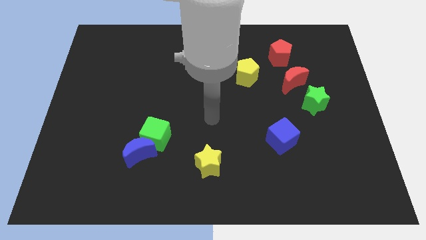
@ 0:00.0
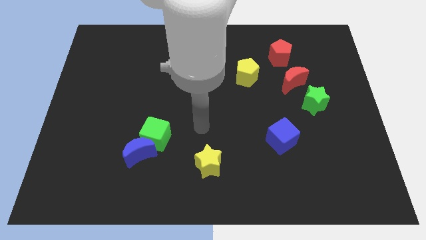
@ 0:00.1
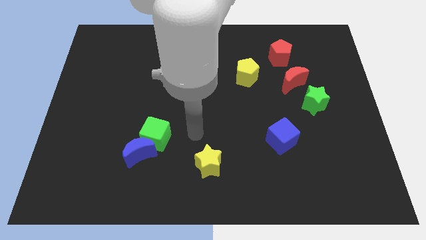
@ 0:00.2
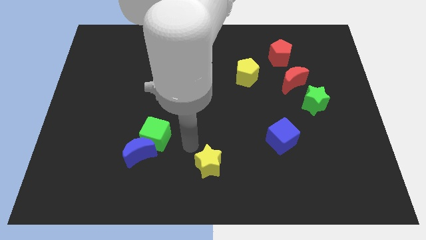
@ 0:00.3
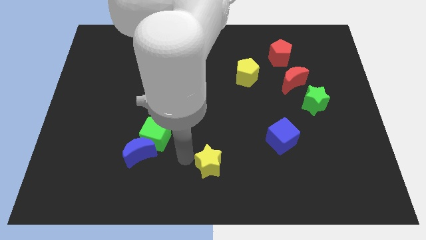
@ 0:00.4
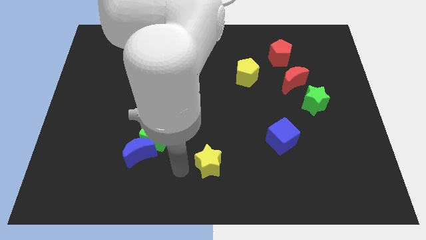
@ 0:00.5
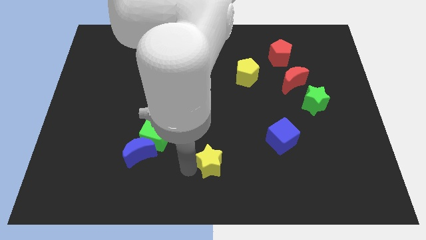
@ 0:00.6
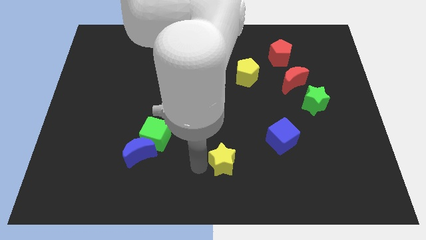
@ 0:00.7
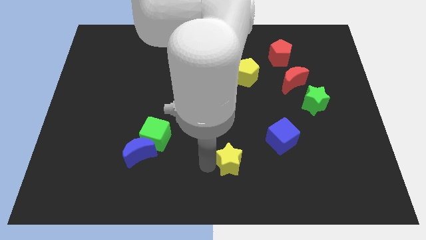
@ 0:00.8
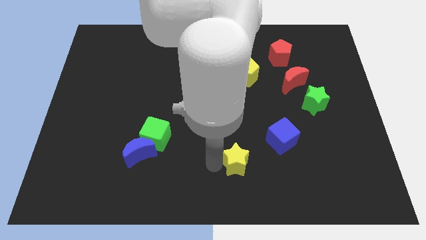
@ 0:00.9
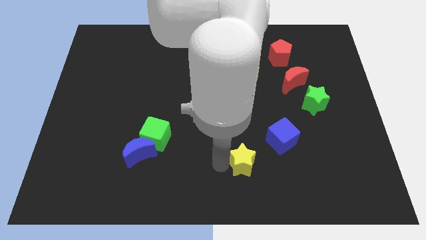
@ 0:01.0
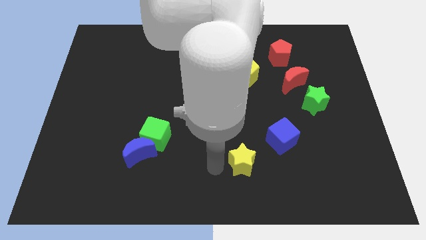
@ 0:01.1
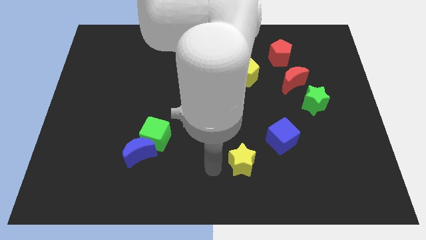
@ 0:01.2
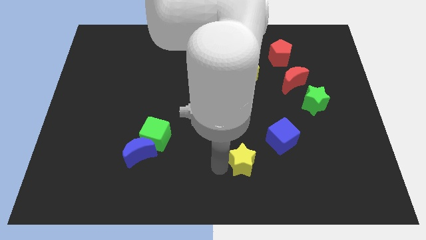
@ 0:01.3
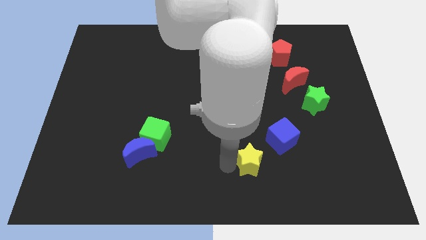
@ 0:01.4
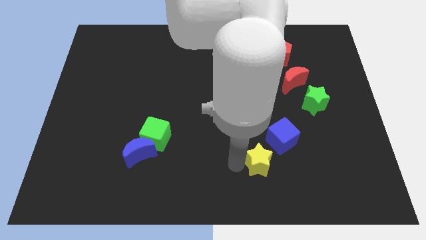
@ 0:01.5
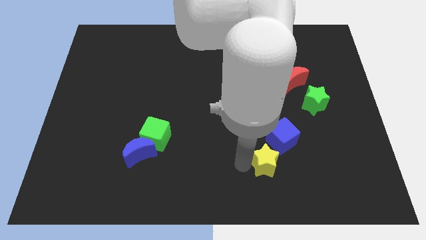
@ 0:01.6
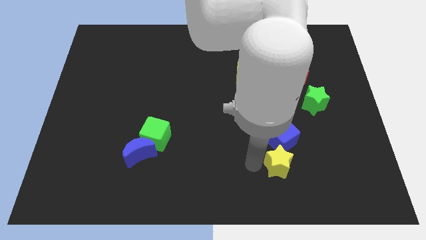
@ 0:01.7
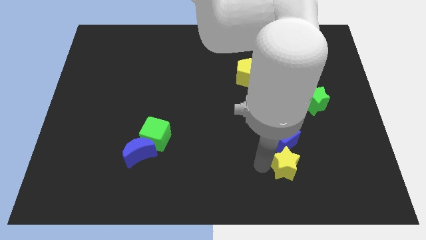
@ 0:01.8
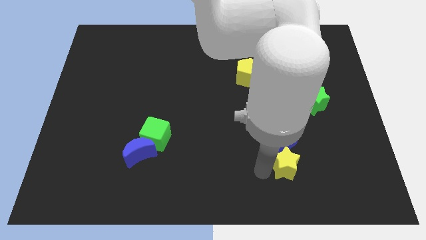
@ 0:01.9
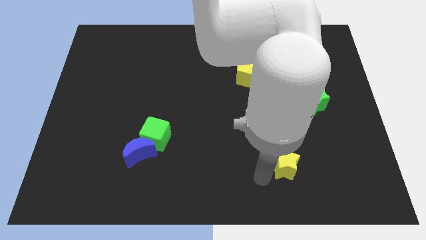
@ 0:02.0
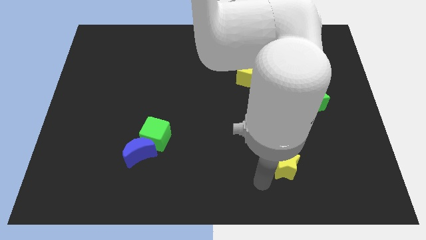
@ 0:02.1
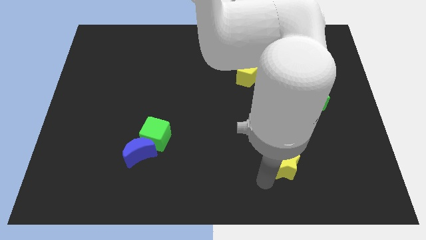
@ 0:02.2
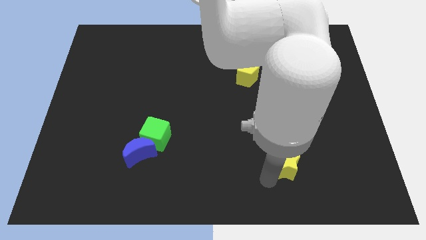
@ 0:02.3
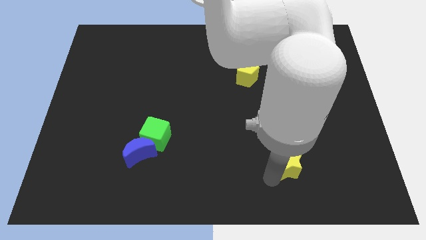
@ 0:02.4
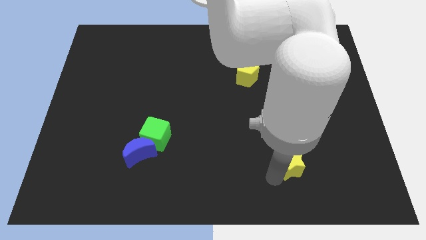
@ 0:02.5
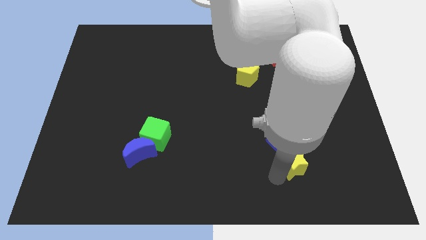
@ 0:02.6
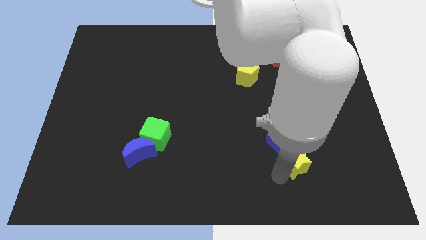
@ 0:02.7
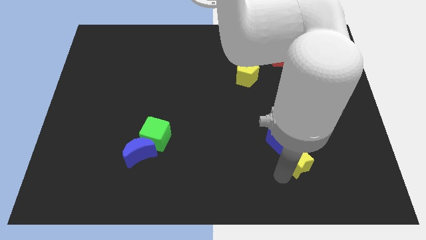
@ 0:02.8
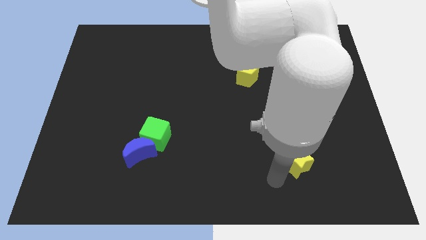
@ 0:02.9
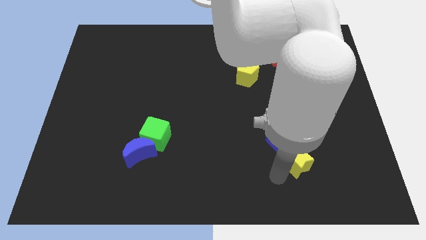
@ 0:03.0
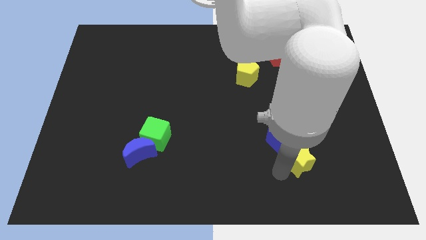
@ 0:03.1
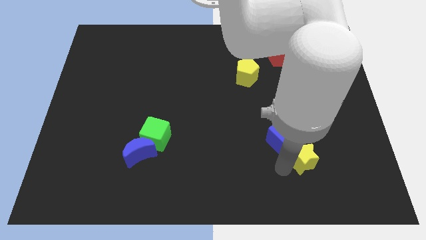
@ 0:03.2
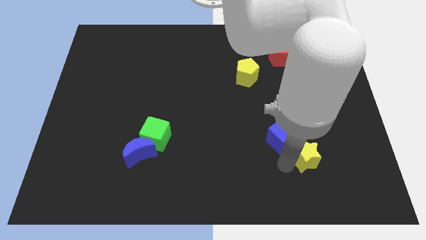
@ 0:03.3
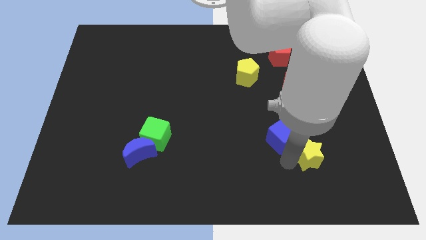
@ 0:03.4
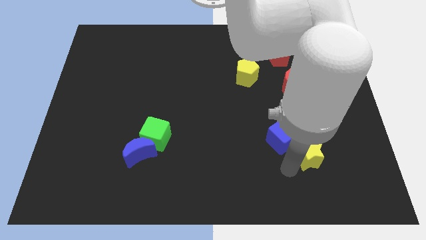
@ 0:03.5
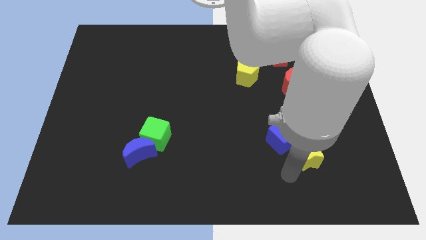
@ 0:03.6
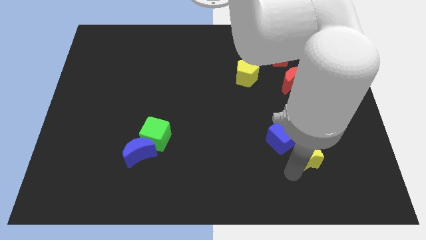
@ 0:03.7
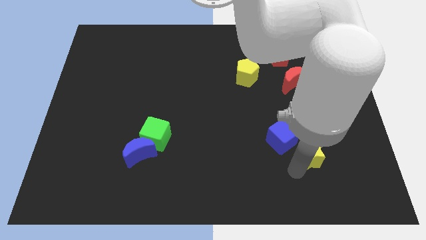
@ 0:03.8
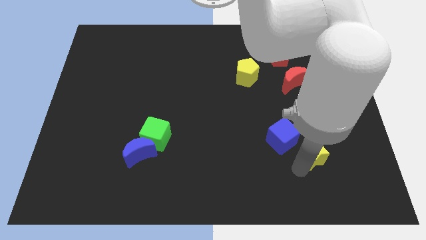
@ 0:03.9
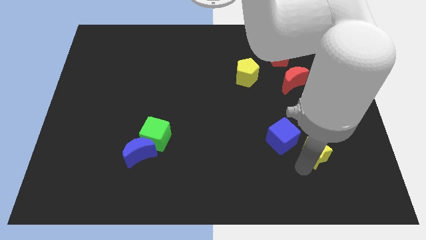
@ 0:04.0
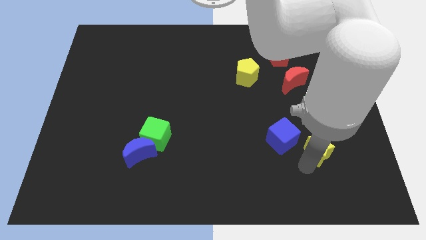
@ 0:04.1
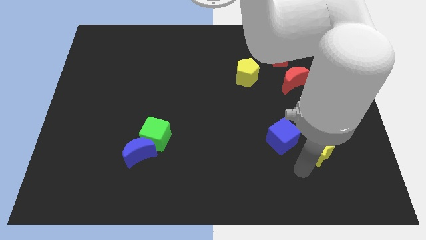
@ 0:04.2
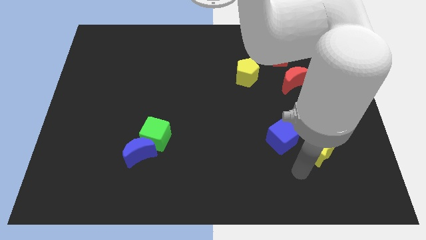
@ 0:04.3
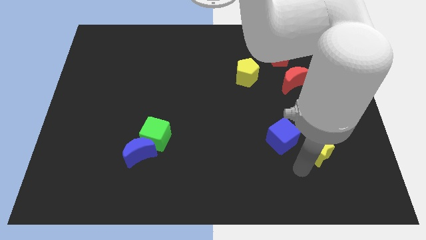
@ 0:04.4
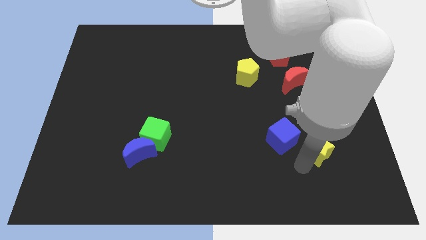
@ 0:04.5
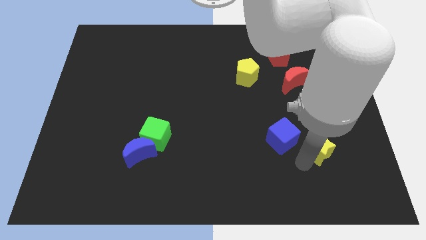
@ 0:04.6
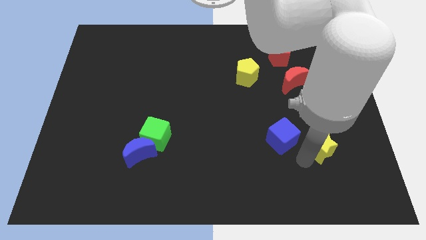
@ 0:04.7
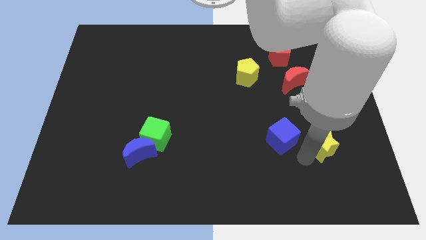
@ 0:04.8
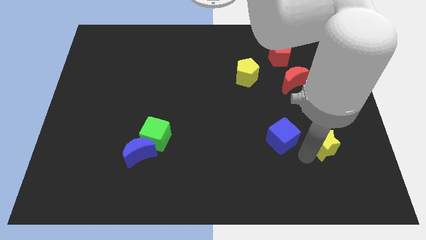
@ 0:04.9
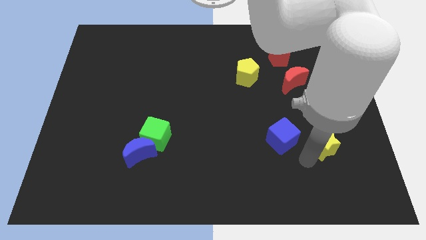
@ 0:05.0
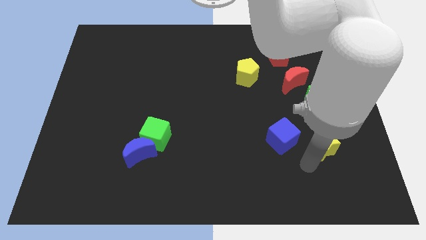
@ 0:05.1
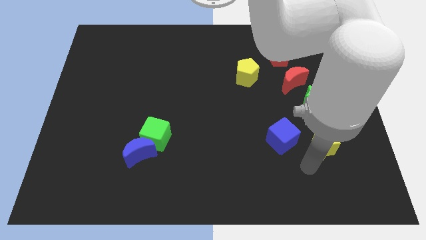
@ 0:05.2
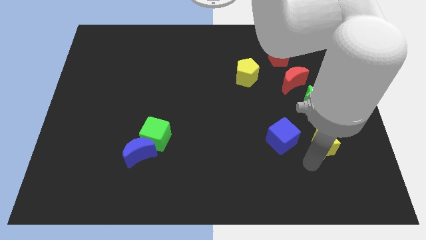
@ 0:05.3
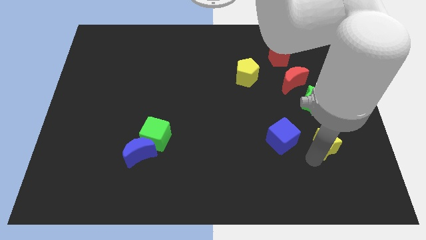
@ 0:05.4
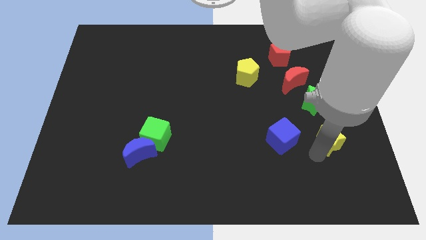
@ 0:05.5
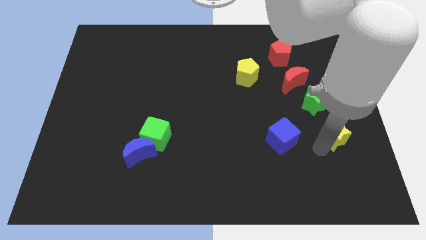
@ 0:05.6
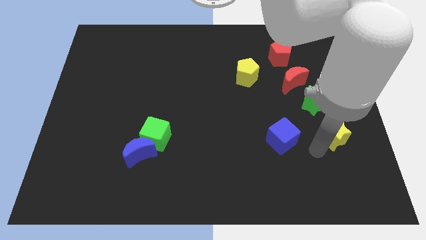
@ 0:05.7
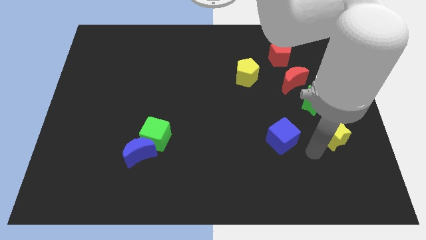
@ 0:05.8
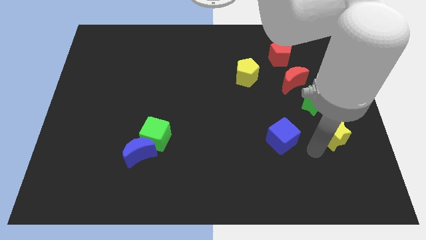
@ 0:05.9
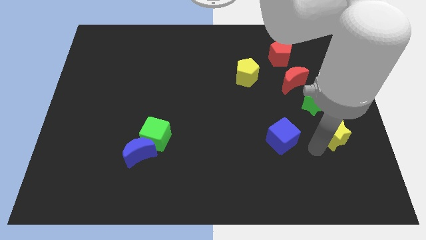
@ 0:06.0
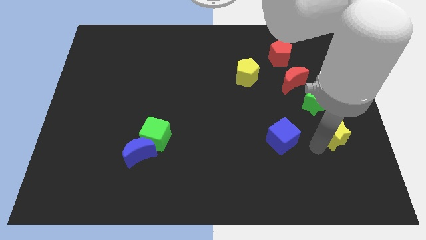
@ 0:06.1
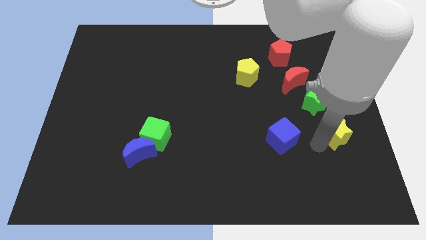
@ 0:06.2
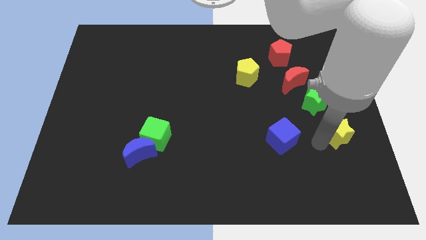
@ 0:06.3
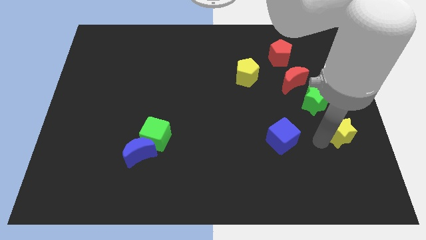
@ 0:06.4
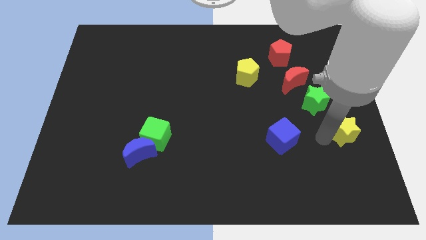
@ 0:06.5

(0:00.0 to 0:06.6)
move the yellow star to the center right

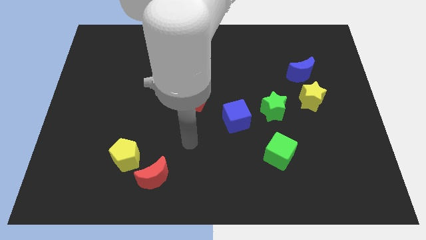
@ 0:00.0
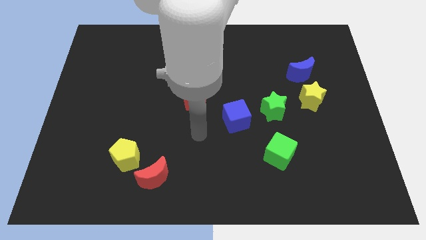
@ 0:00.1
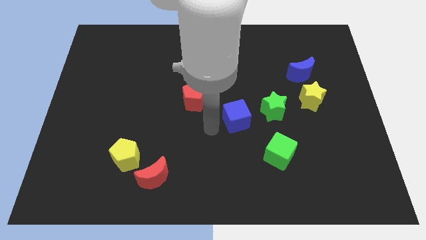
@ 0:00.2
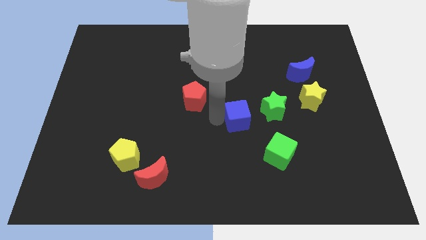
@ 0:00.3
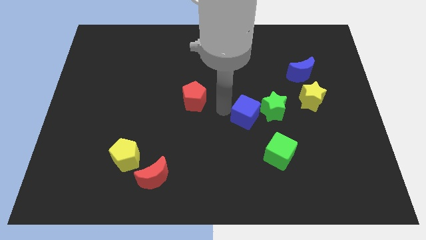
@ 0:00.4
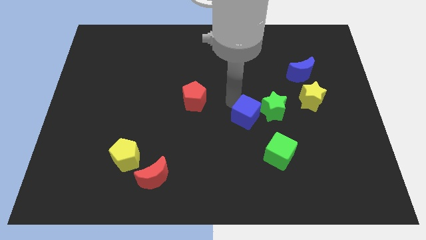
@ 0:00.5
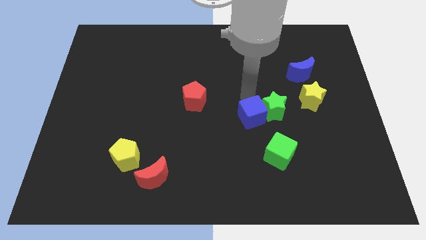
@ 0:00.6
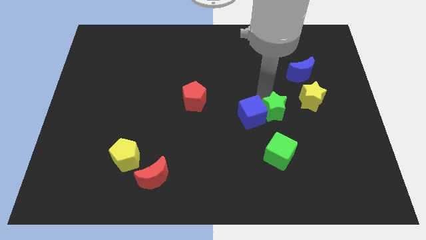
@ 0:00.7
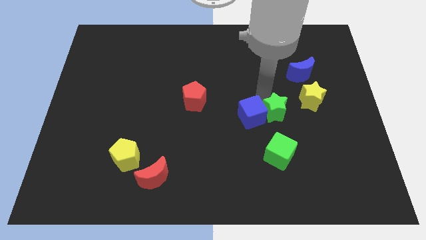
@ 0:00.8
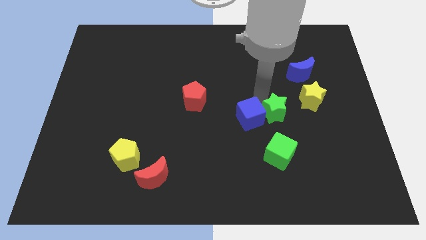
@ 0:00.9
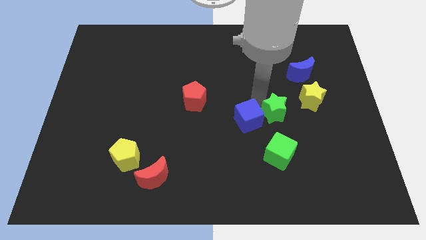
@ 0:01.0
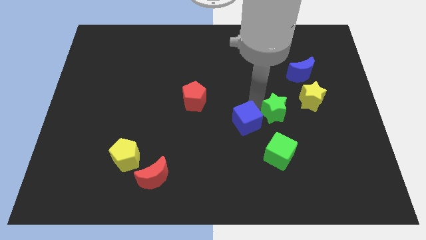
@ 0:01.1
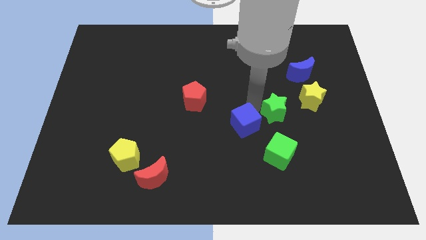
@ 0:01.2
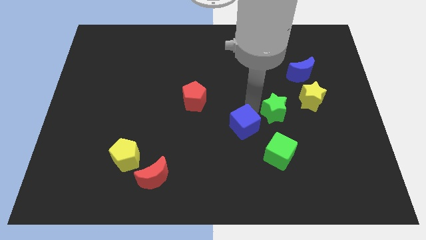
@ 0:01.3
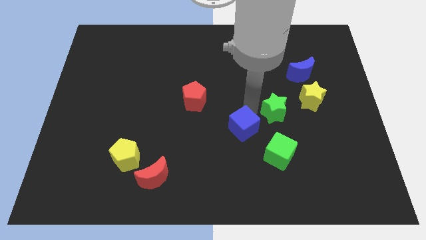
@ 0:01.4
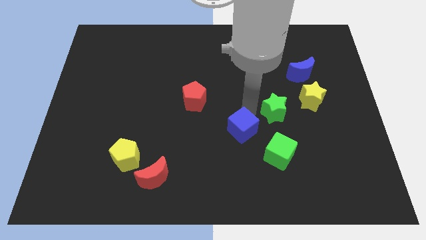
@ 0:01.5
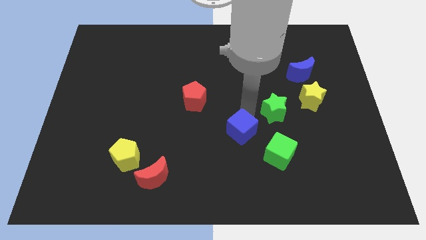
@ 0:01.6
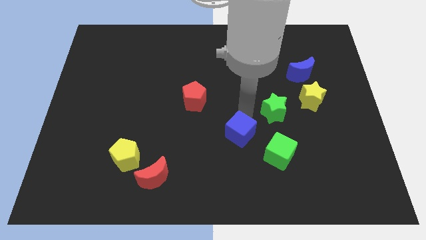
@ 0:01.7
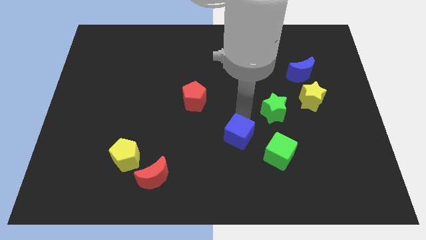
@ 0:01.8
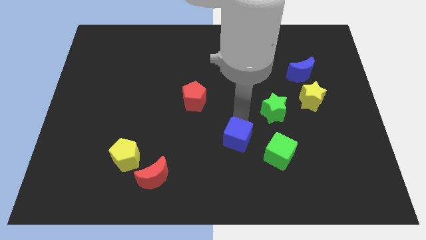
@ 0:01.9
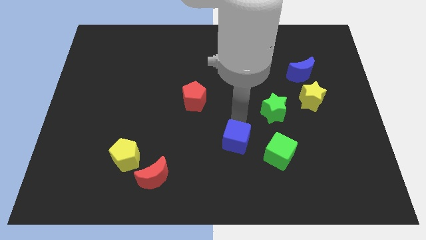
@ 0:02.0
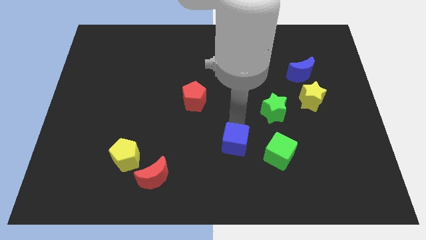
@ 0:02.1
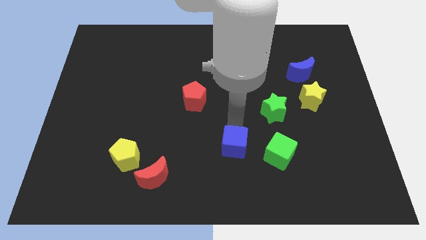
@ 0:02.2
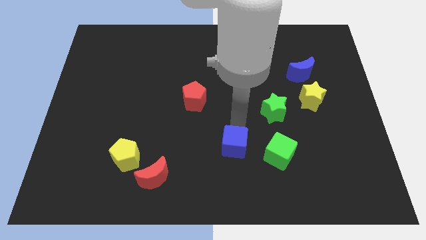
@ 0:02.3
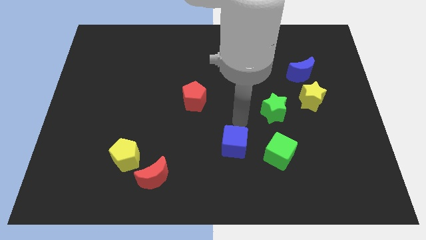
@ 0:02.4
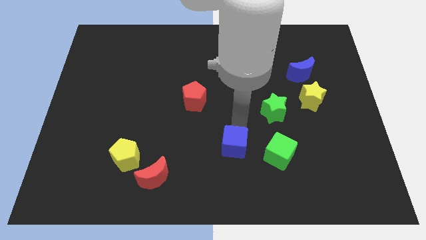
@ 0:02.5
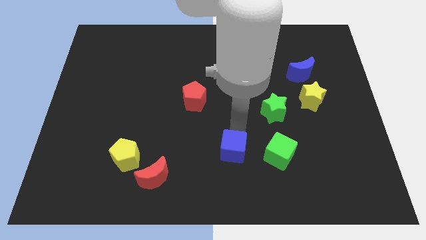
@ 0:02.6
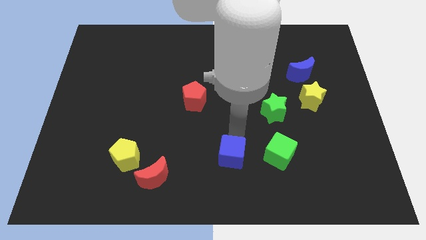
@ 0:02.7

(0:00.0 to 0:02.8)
push the blue cube to the bottom side
